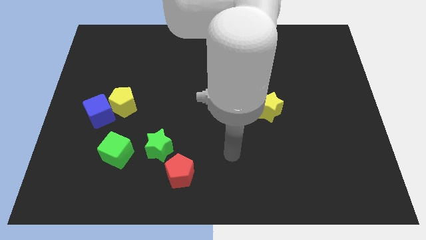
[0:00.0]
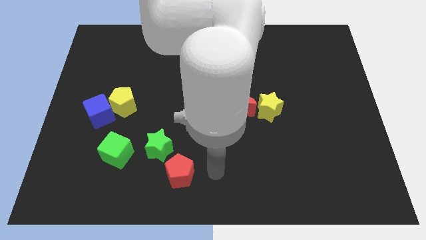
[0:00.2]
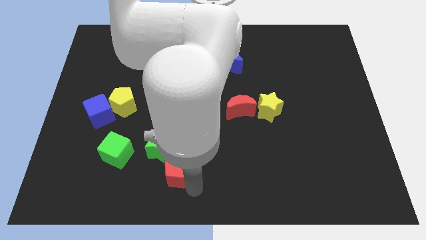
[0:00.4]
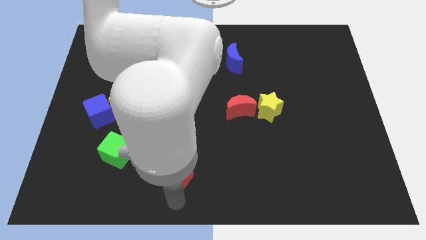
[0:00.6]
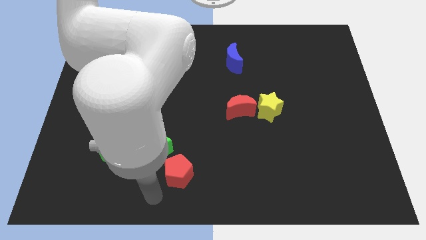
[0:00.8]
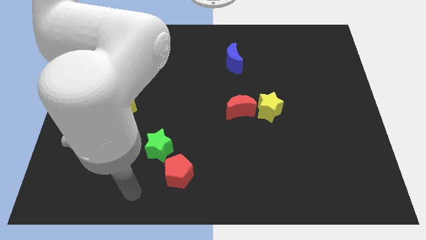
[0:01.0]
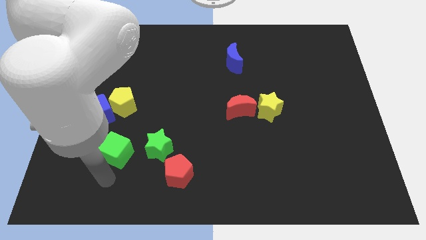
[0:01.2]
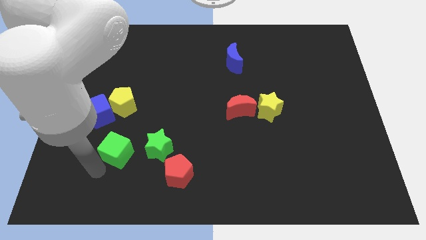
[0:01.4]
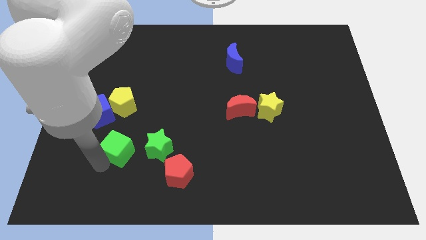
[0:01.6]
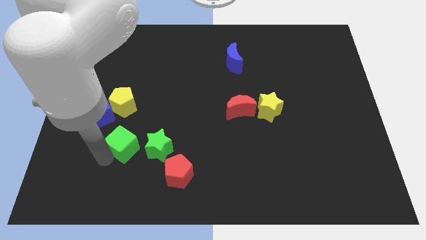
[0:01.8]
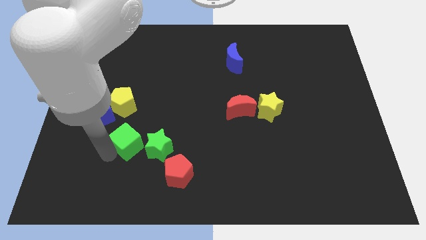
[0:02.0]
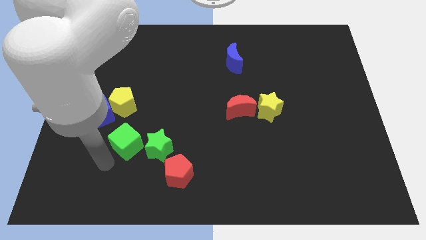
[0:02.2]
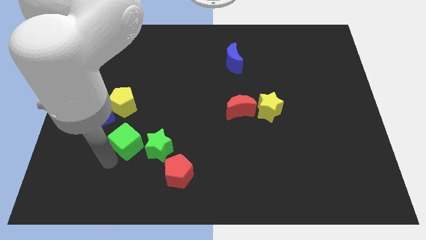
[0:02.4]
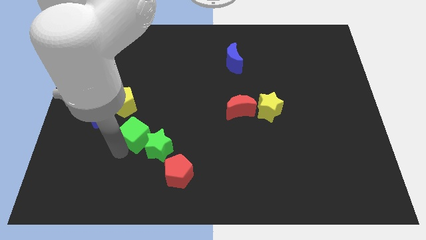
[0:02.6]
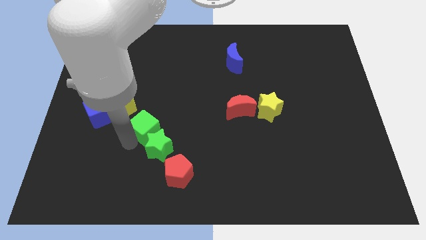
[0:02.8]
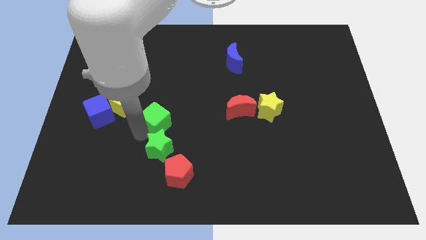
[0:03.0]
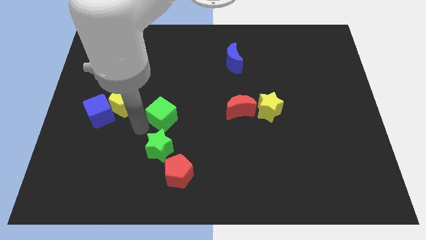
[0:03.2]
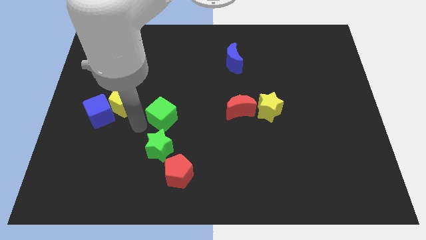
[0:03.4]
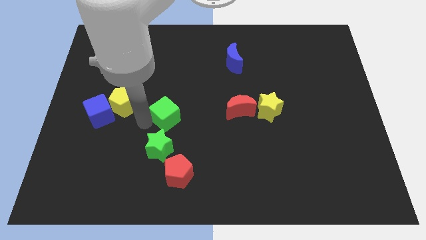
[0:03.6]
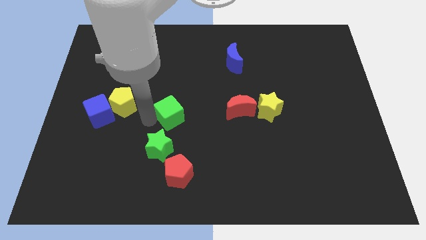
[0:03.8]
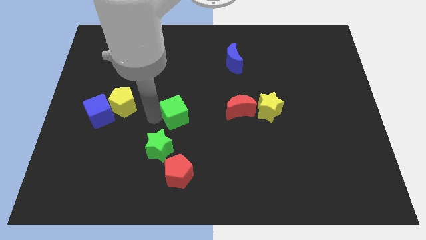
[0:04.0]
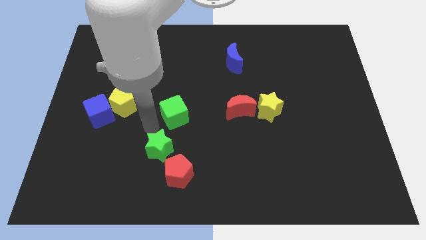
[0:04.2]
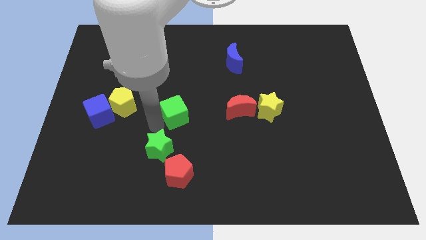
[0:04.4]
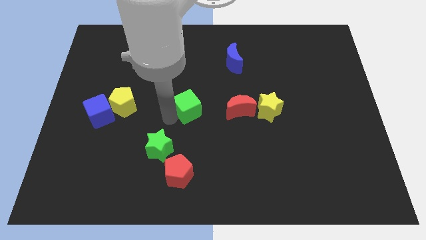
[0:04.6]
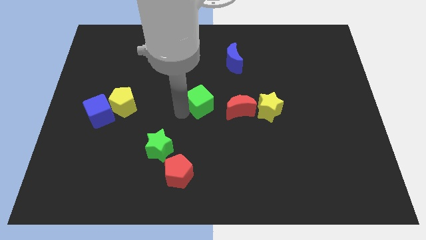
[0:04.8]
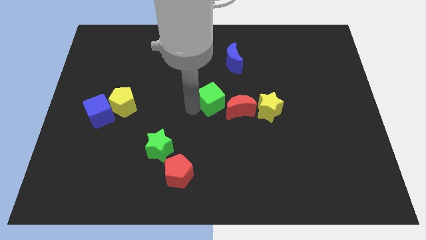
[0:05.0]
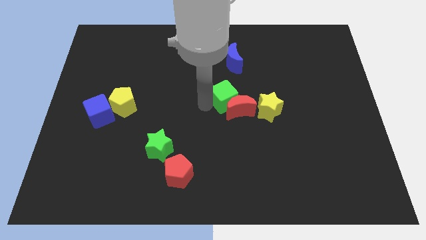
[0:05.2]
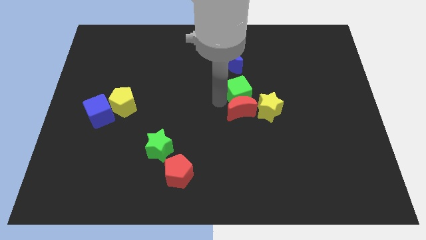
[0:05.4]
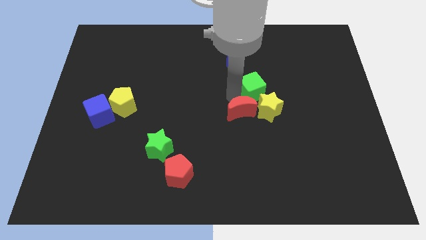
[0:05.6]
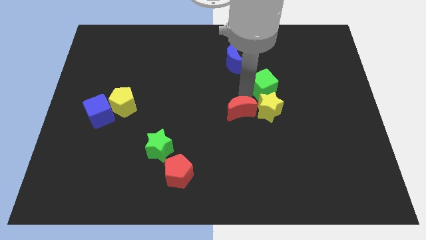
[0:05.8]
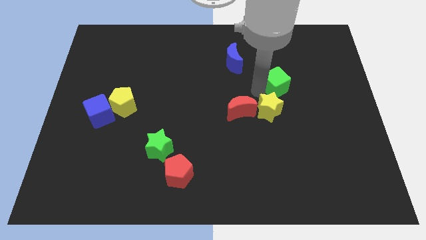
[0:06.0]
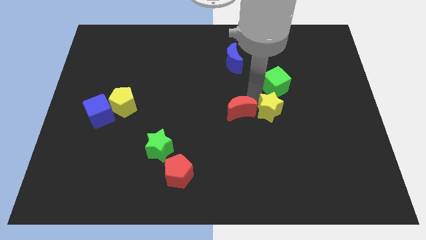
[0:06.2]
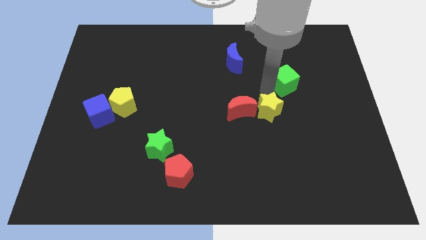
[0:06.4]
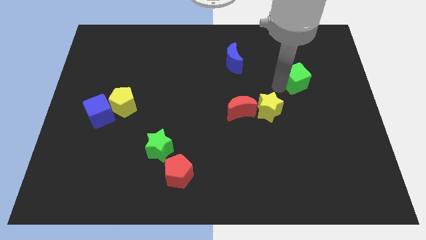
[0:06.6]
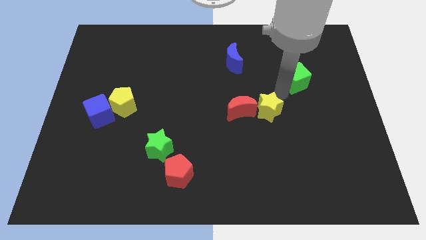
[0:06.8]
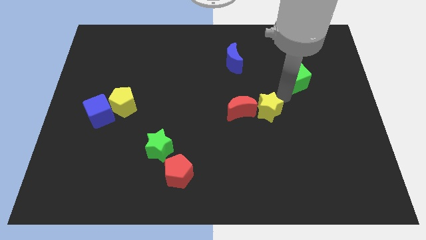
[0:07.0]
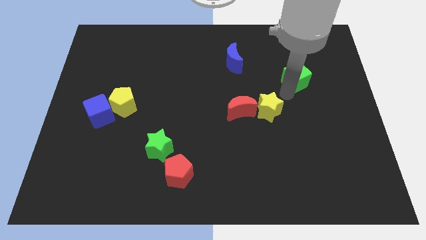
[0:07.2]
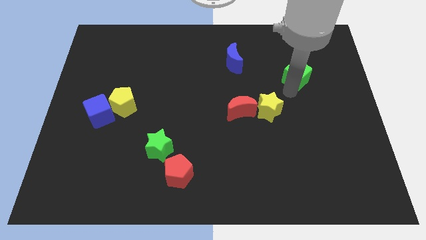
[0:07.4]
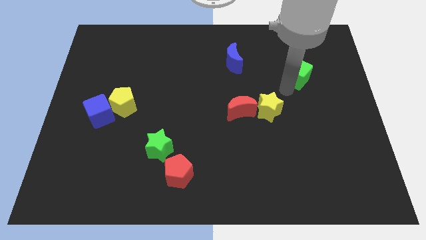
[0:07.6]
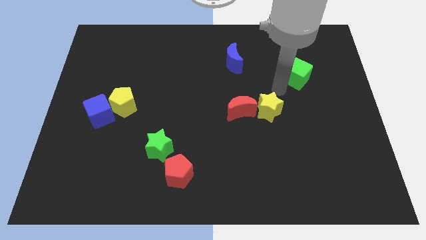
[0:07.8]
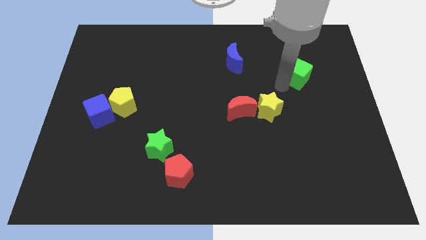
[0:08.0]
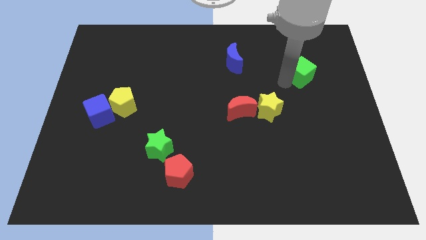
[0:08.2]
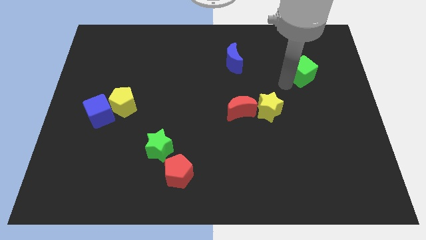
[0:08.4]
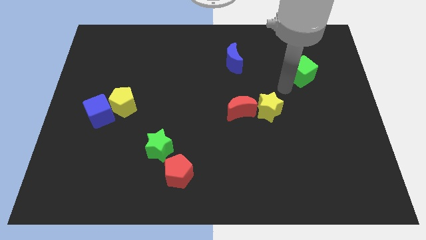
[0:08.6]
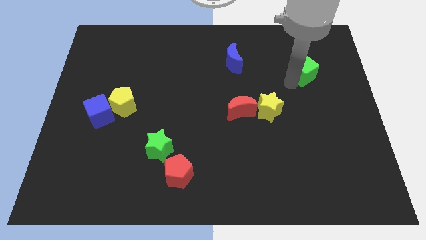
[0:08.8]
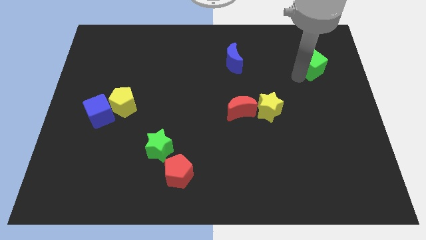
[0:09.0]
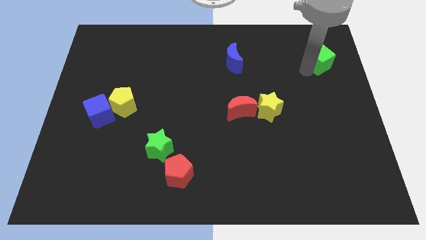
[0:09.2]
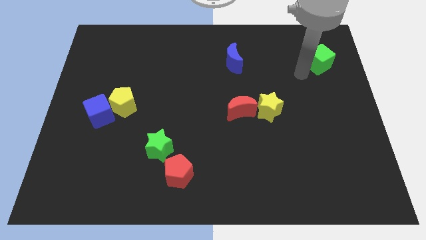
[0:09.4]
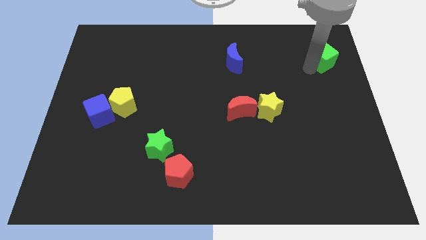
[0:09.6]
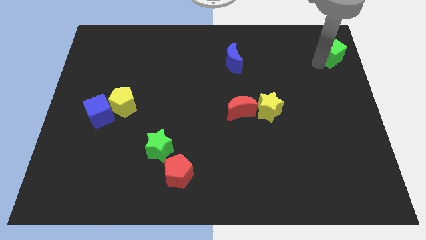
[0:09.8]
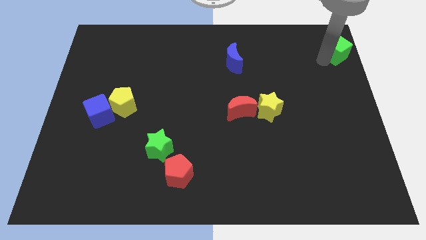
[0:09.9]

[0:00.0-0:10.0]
push the green cube to the upper right corner

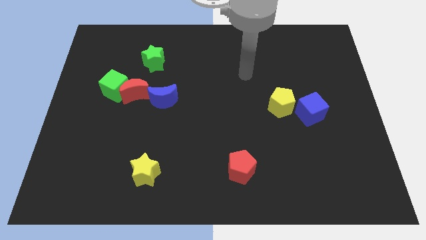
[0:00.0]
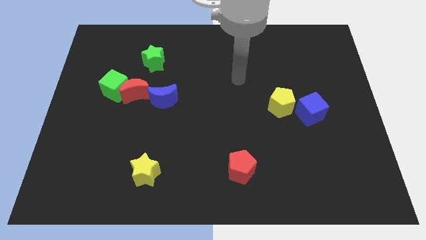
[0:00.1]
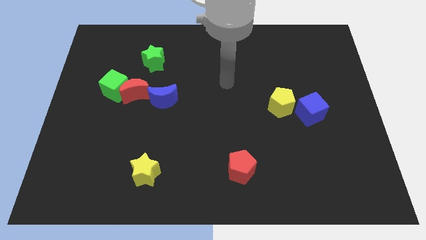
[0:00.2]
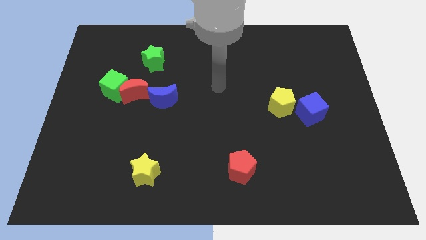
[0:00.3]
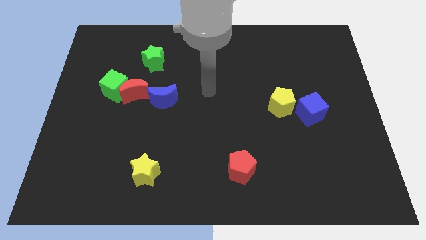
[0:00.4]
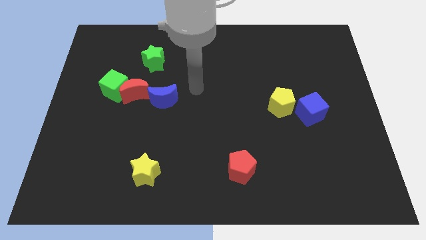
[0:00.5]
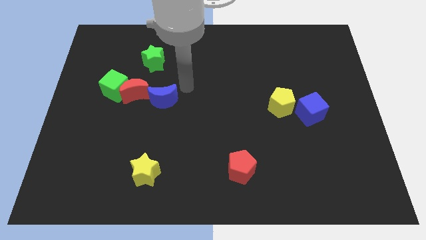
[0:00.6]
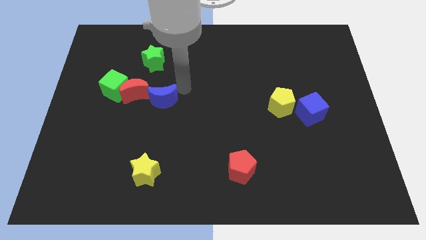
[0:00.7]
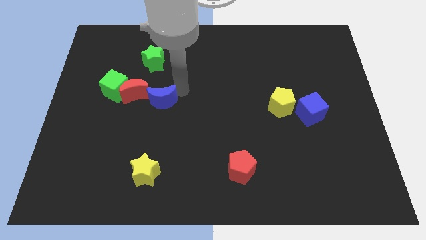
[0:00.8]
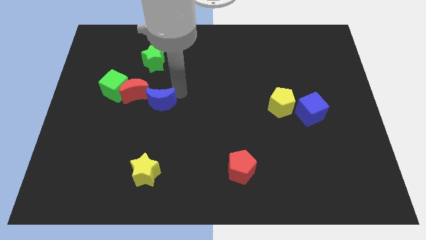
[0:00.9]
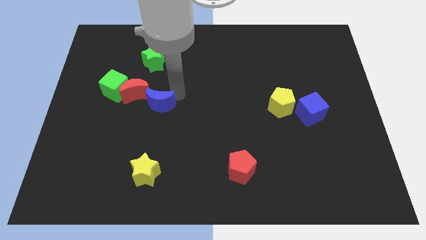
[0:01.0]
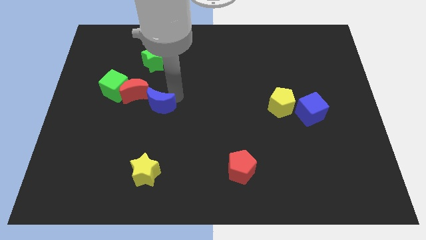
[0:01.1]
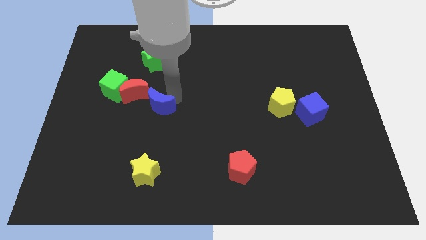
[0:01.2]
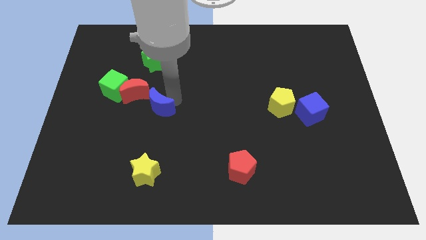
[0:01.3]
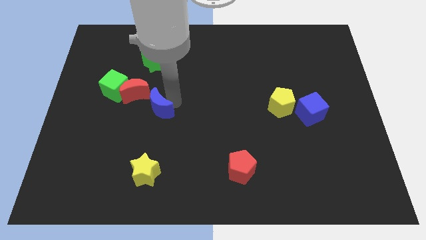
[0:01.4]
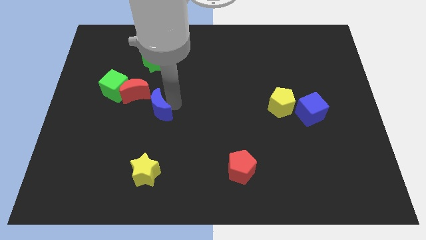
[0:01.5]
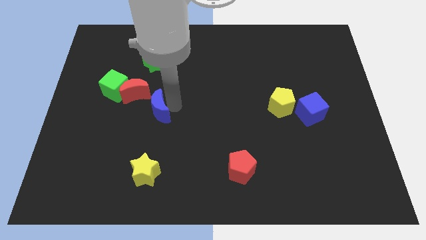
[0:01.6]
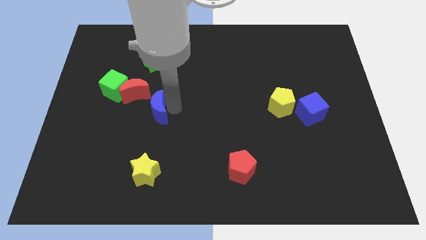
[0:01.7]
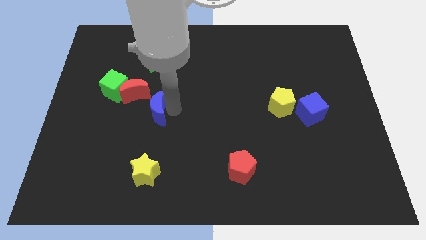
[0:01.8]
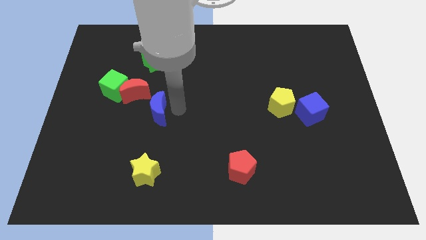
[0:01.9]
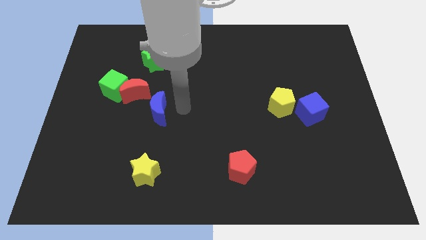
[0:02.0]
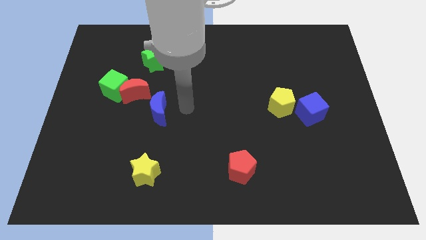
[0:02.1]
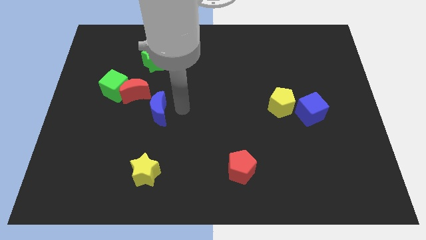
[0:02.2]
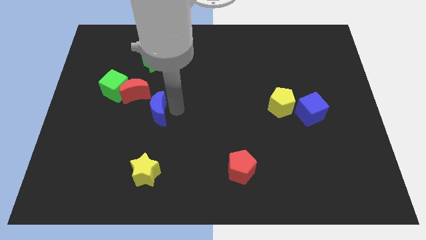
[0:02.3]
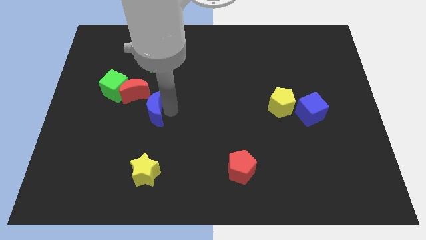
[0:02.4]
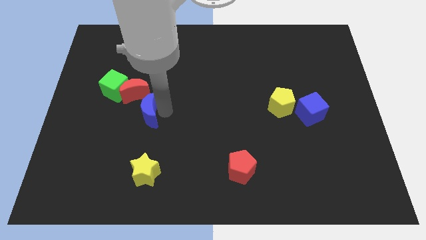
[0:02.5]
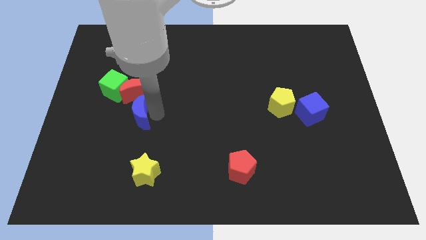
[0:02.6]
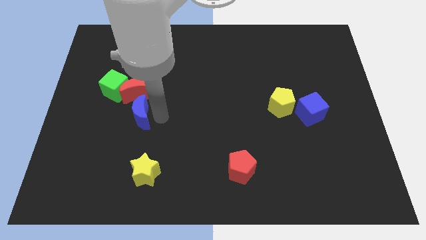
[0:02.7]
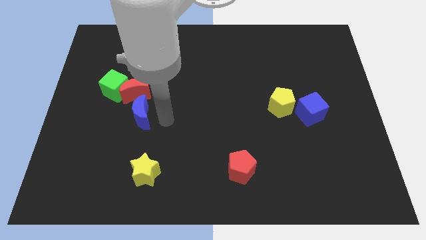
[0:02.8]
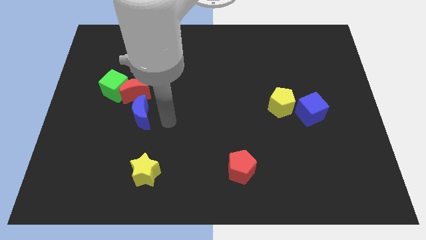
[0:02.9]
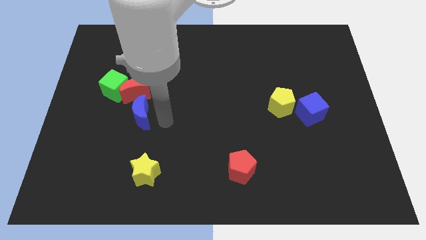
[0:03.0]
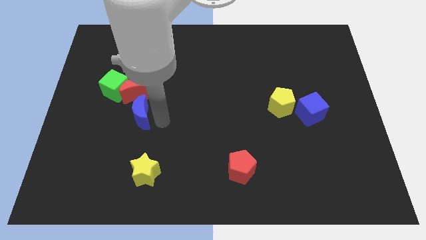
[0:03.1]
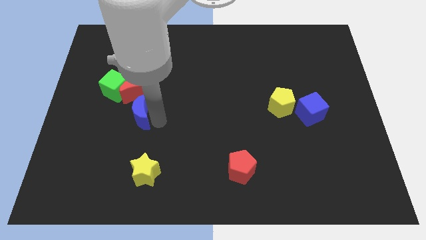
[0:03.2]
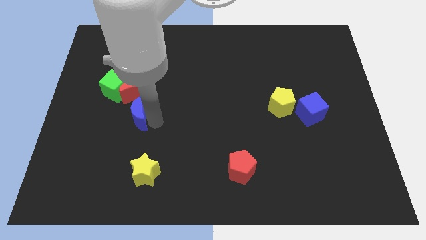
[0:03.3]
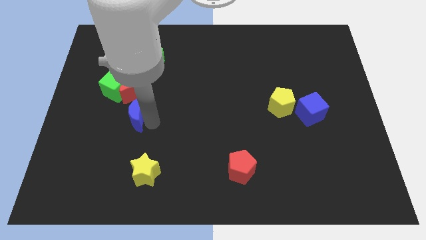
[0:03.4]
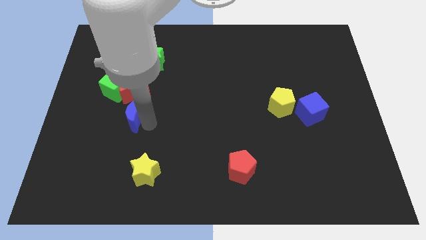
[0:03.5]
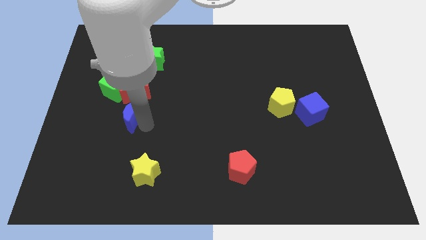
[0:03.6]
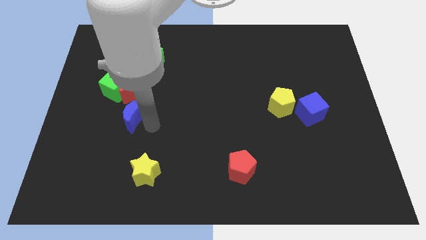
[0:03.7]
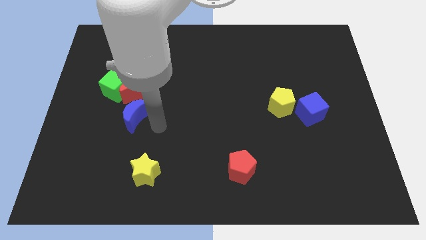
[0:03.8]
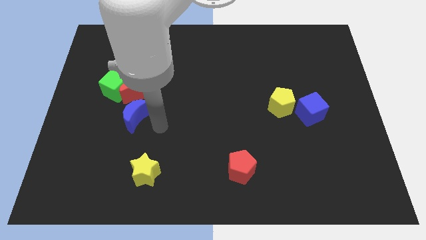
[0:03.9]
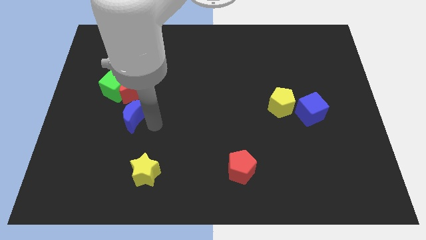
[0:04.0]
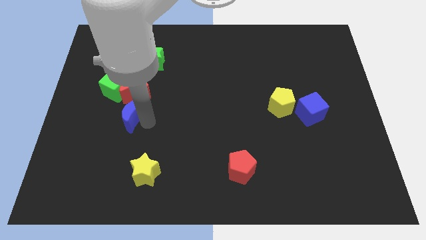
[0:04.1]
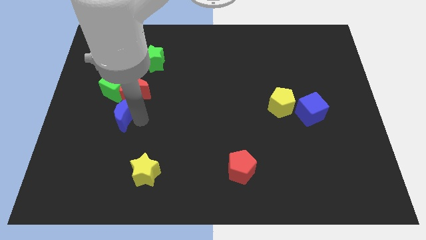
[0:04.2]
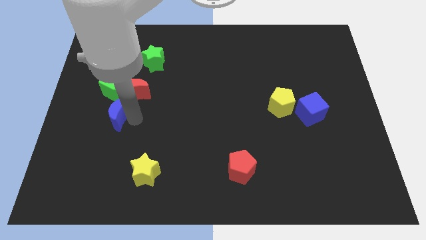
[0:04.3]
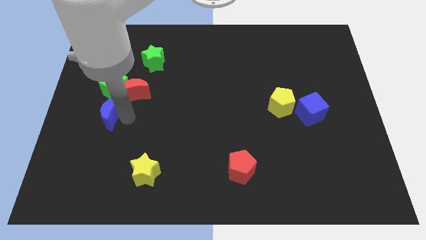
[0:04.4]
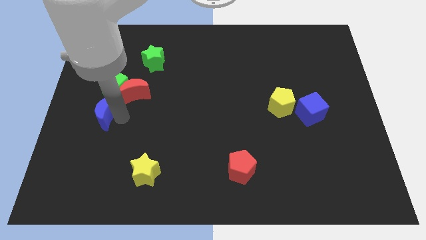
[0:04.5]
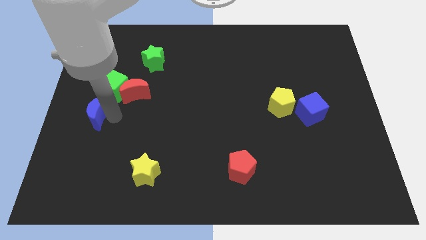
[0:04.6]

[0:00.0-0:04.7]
move the blue moon to the left side
